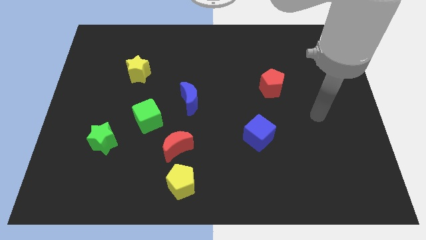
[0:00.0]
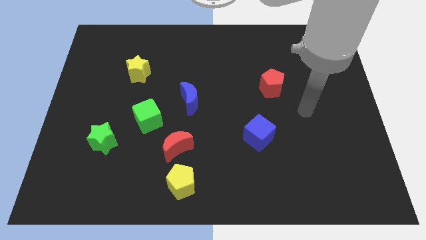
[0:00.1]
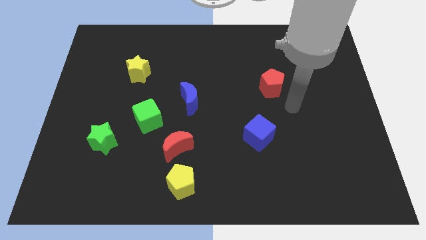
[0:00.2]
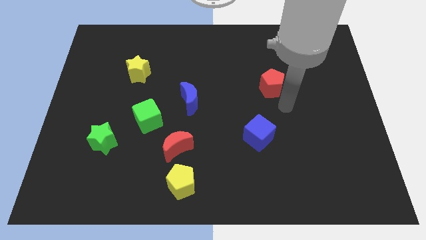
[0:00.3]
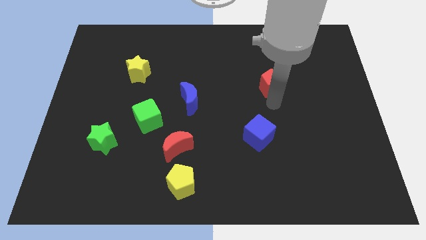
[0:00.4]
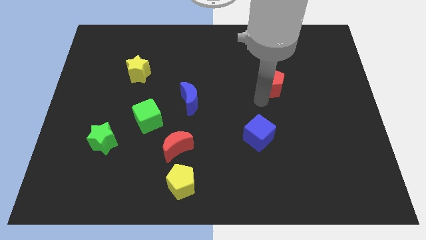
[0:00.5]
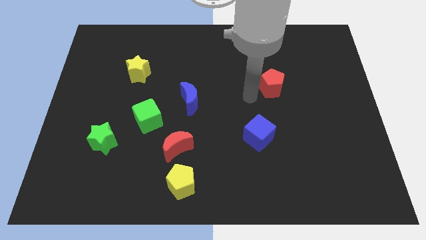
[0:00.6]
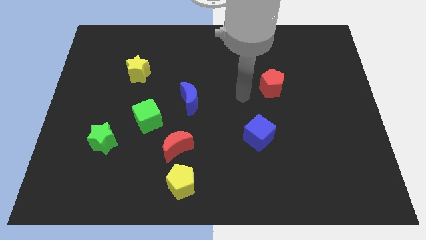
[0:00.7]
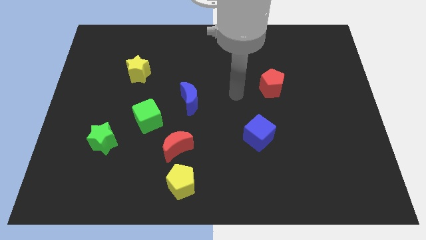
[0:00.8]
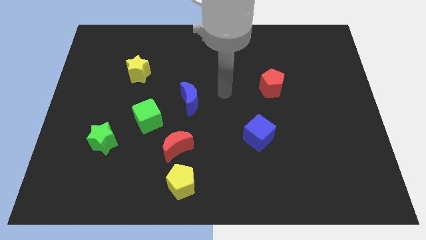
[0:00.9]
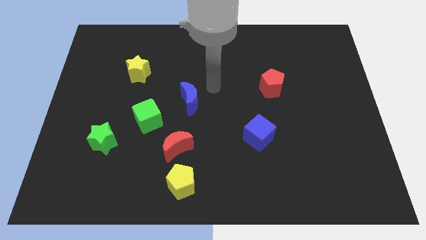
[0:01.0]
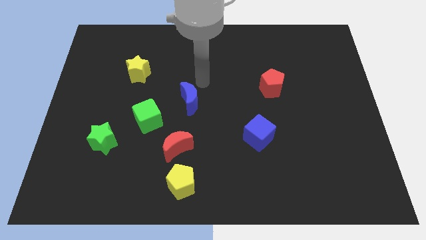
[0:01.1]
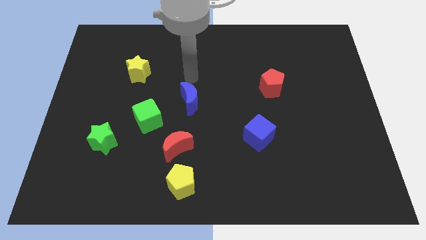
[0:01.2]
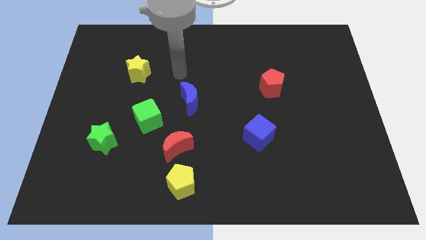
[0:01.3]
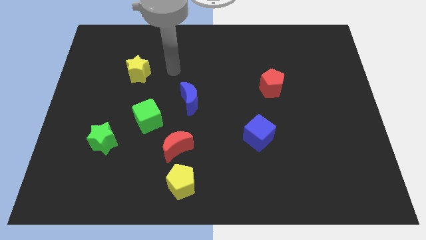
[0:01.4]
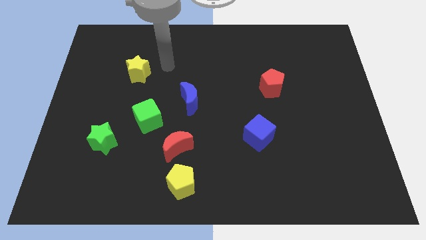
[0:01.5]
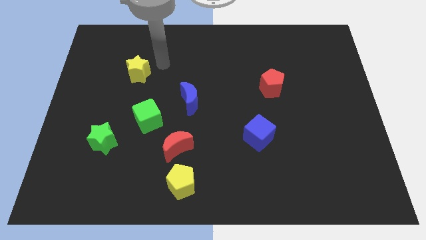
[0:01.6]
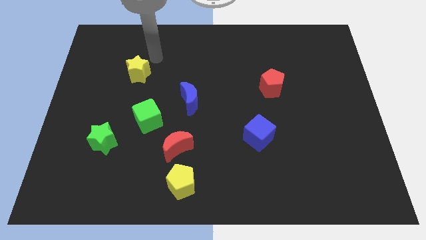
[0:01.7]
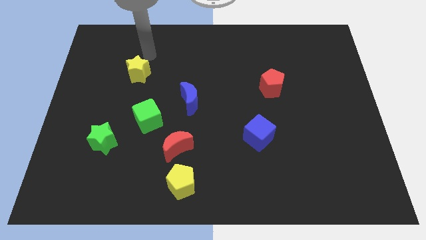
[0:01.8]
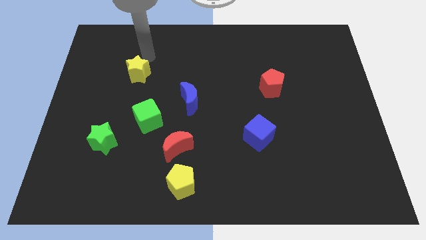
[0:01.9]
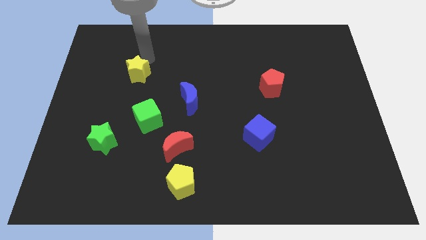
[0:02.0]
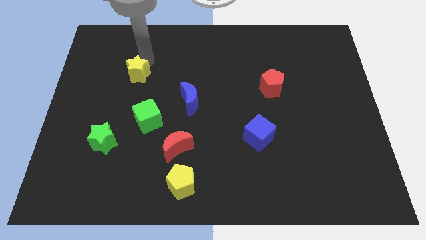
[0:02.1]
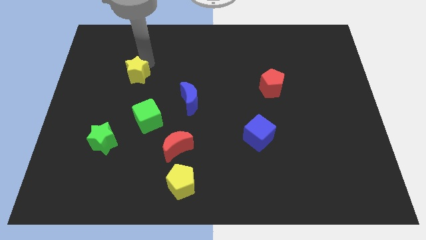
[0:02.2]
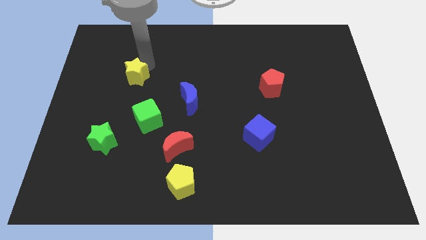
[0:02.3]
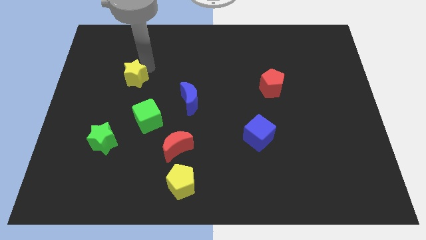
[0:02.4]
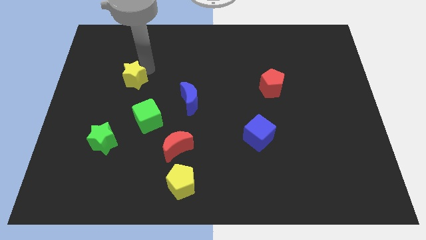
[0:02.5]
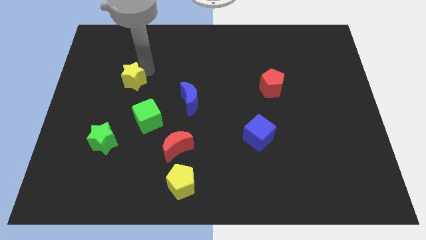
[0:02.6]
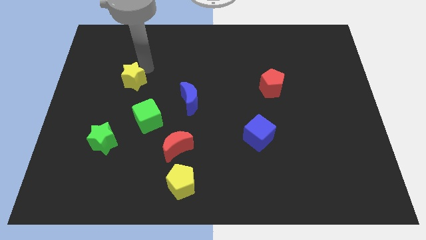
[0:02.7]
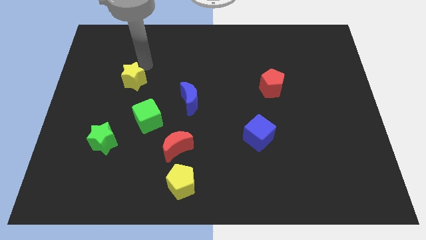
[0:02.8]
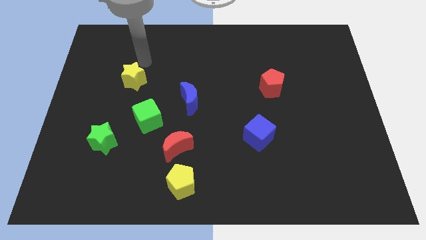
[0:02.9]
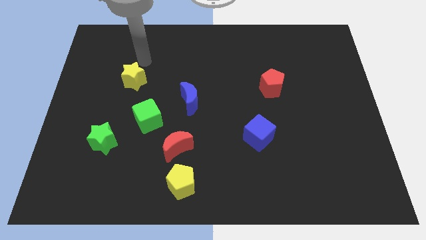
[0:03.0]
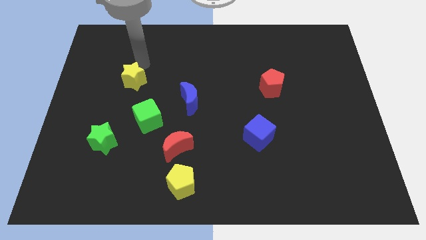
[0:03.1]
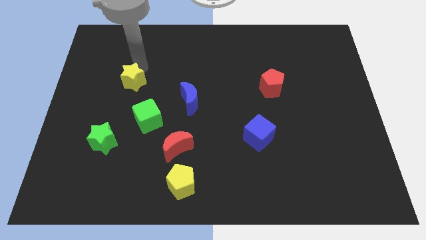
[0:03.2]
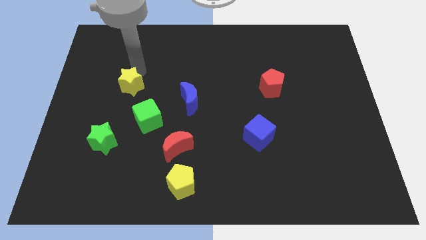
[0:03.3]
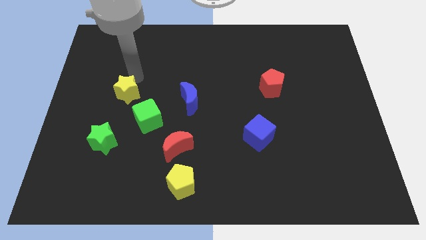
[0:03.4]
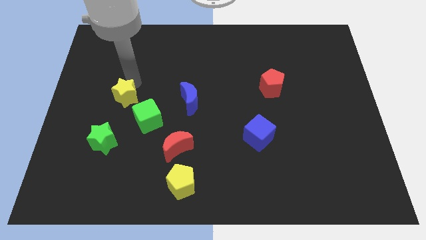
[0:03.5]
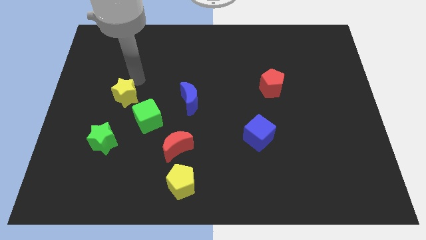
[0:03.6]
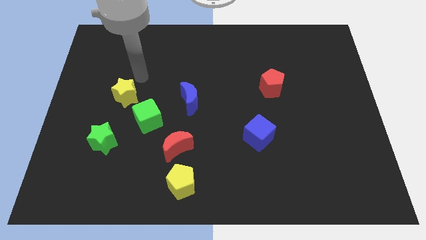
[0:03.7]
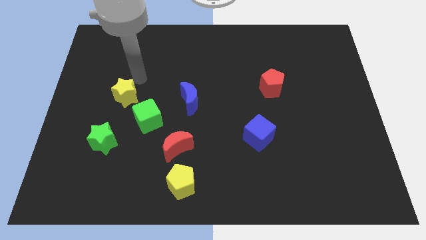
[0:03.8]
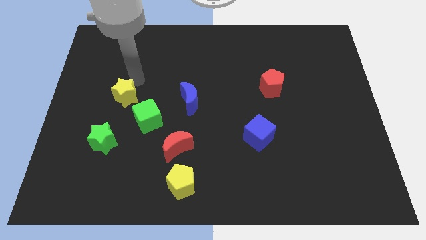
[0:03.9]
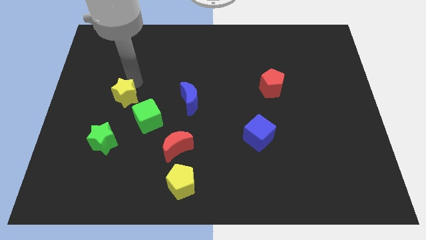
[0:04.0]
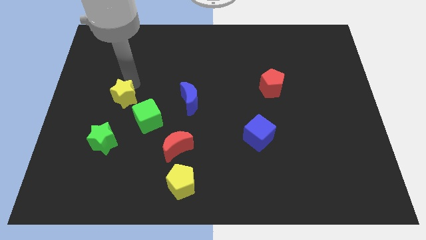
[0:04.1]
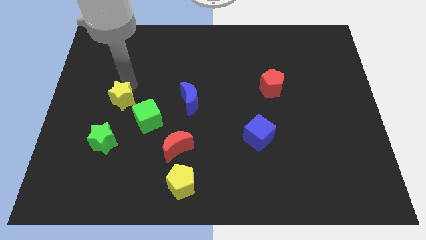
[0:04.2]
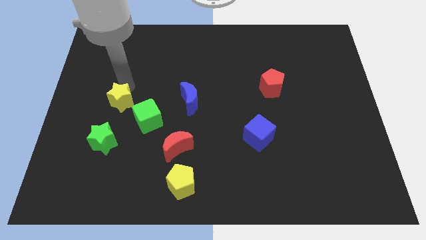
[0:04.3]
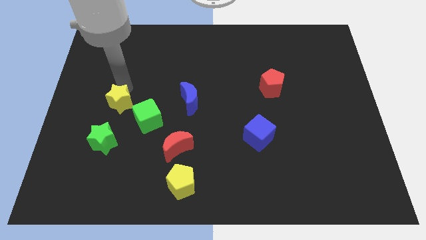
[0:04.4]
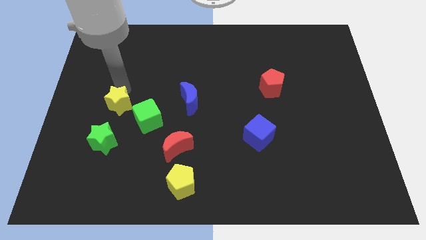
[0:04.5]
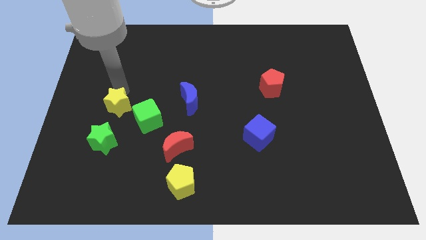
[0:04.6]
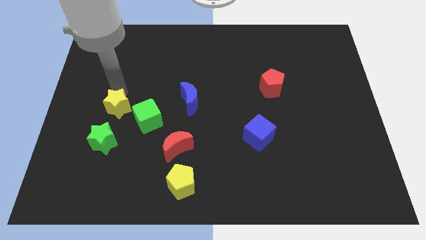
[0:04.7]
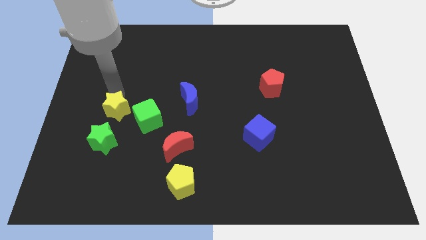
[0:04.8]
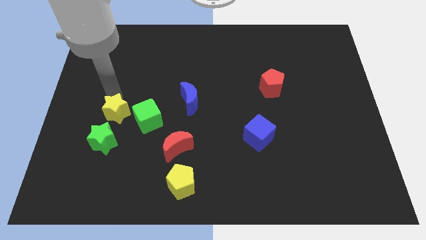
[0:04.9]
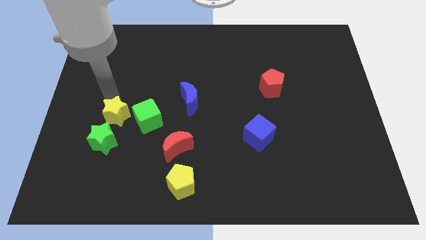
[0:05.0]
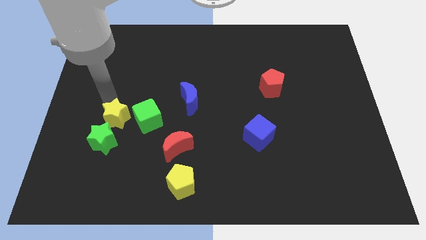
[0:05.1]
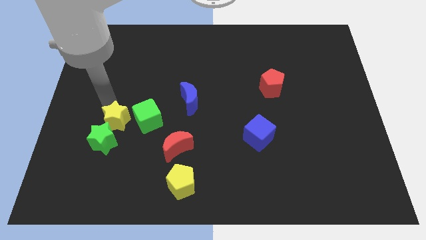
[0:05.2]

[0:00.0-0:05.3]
slide the yellow star towards the green star

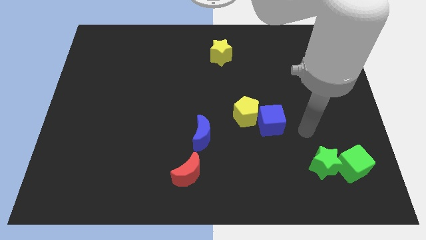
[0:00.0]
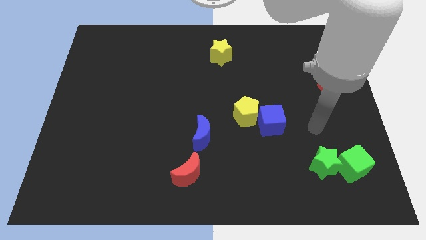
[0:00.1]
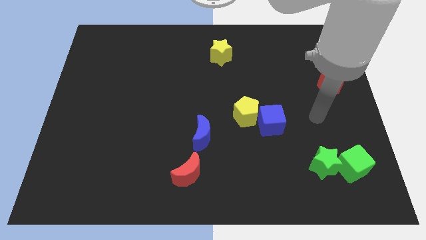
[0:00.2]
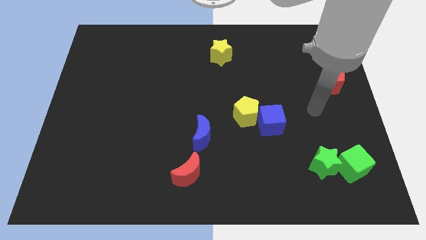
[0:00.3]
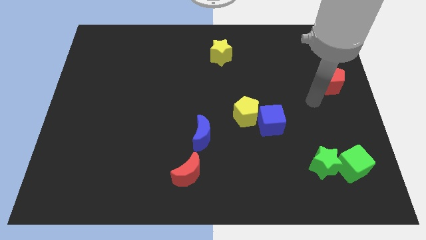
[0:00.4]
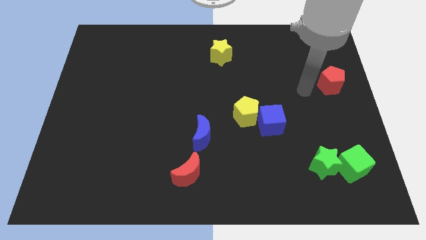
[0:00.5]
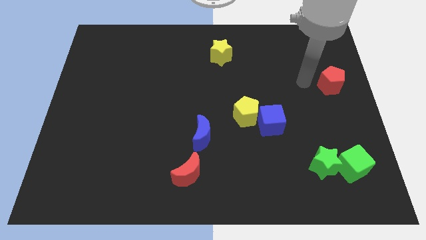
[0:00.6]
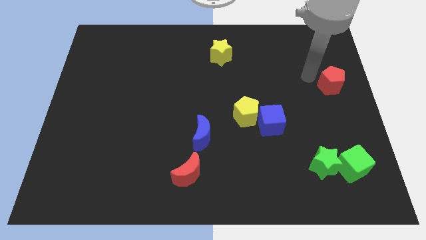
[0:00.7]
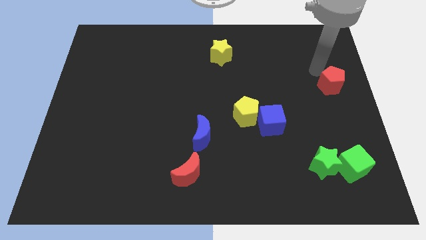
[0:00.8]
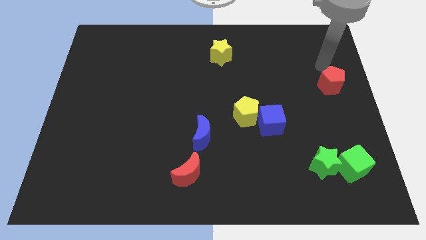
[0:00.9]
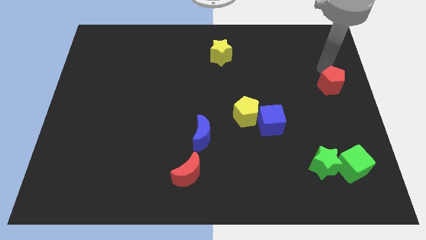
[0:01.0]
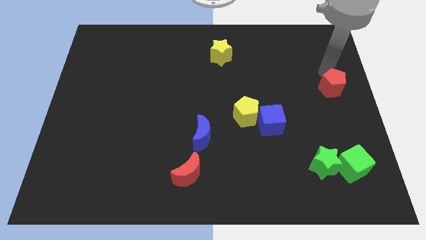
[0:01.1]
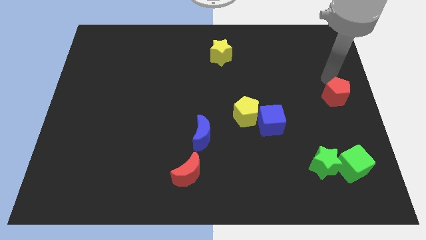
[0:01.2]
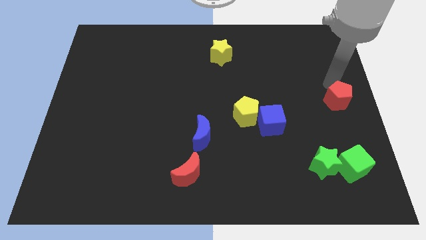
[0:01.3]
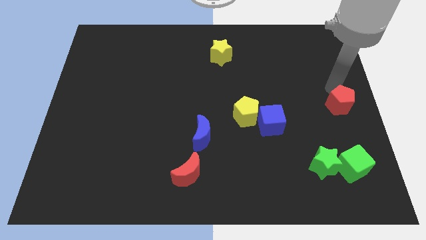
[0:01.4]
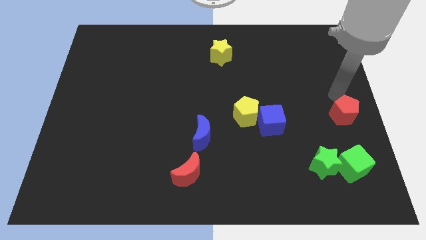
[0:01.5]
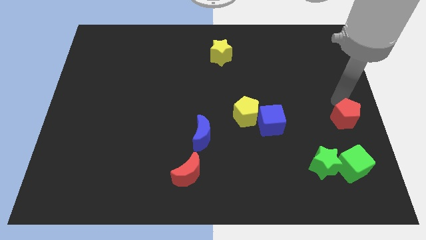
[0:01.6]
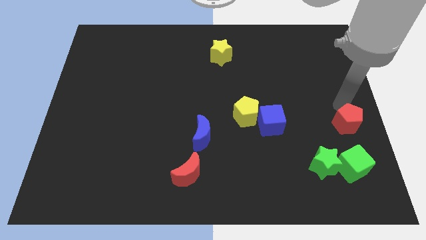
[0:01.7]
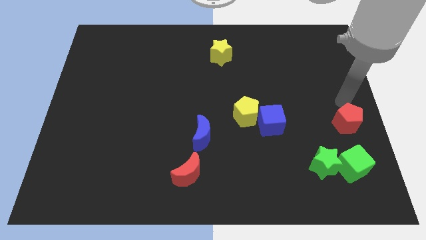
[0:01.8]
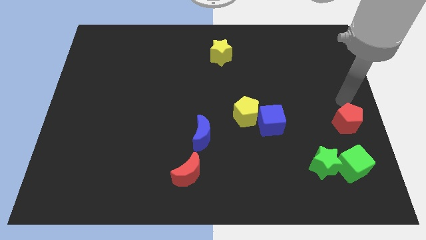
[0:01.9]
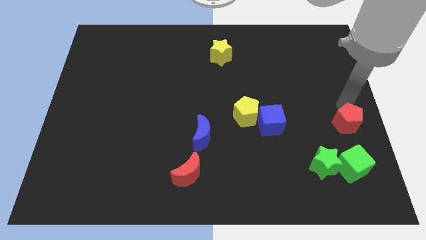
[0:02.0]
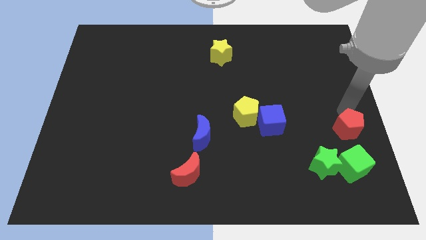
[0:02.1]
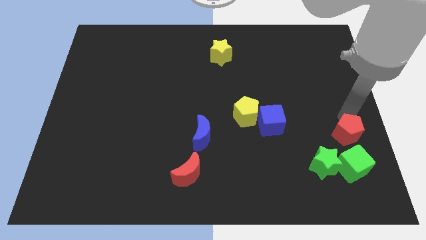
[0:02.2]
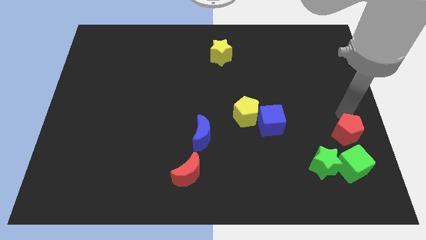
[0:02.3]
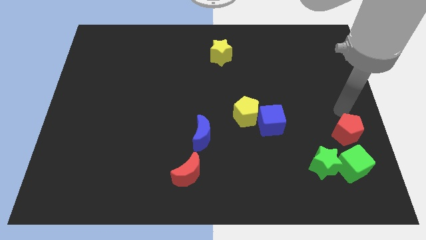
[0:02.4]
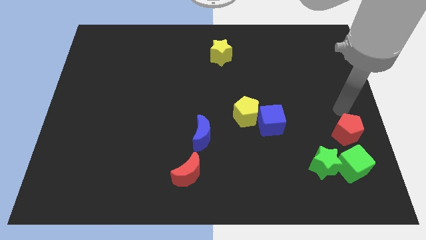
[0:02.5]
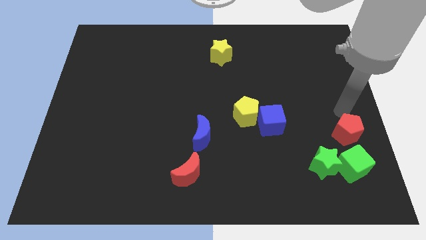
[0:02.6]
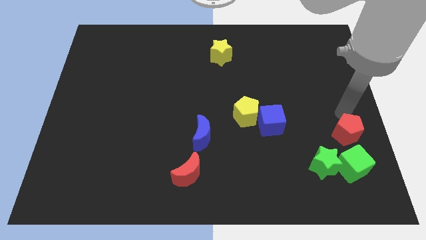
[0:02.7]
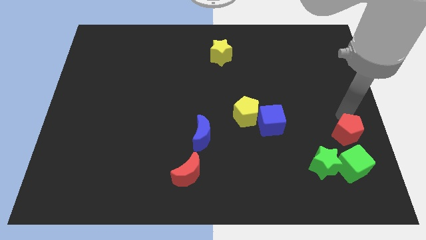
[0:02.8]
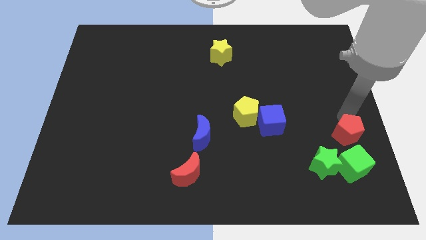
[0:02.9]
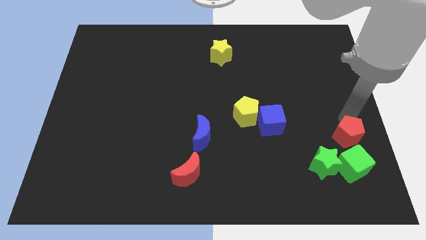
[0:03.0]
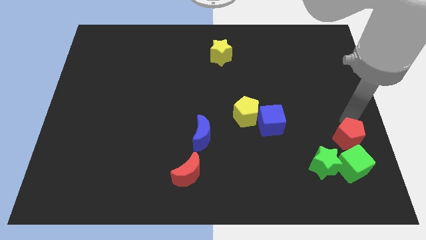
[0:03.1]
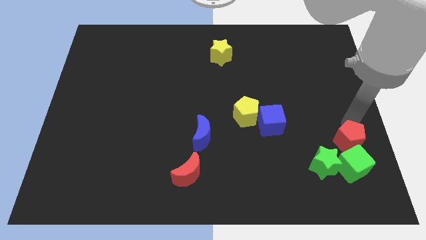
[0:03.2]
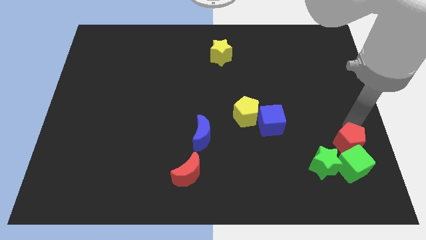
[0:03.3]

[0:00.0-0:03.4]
put the red pentagon next to the green cube
